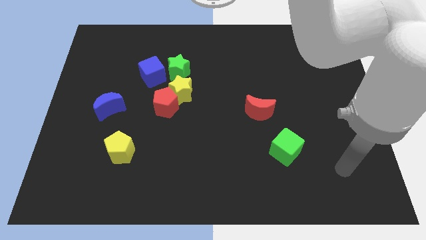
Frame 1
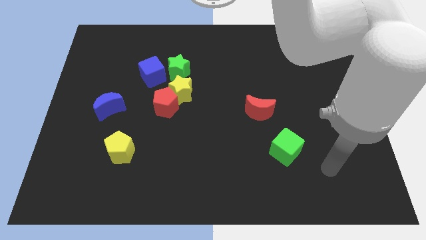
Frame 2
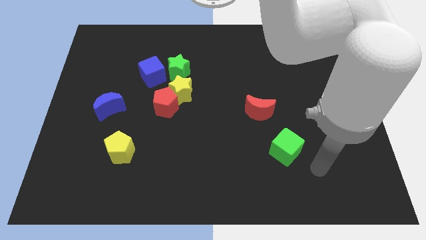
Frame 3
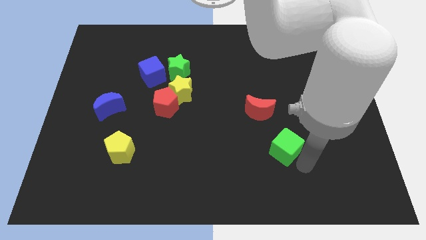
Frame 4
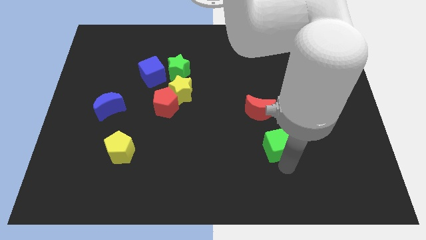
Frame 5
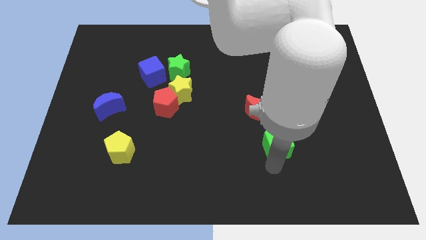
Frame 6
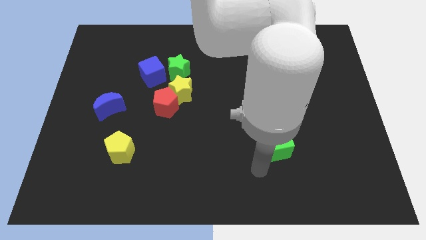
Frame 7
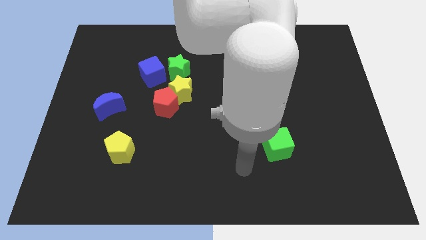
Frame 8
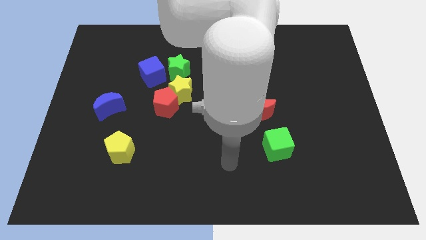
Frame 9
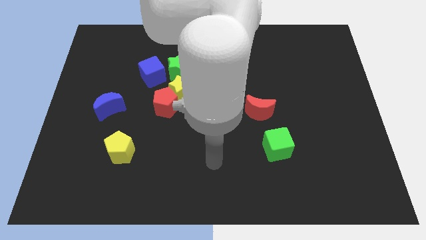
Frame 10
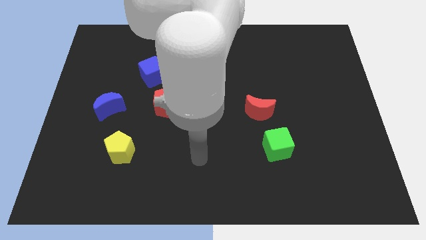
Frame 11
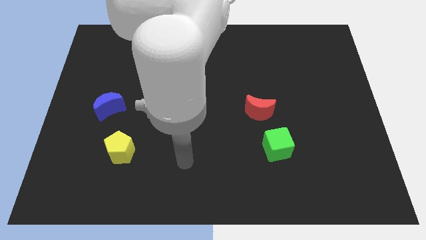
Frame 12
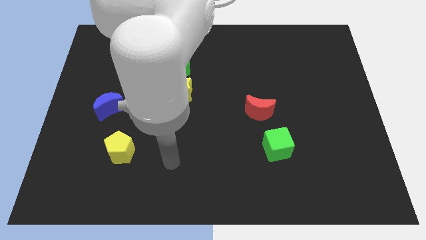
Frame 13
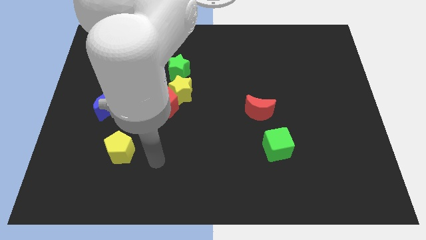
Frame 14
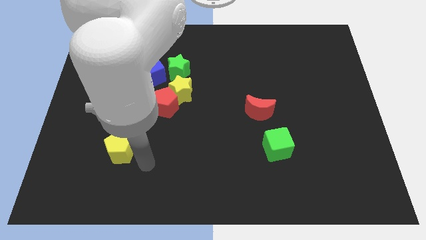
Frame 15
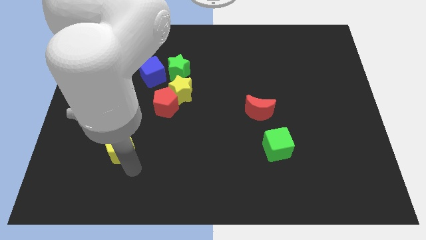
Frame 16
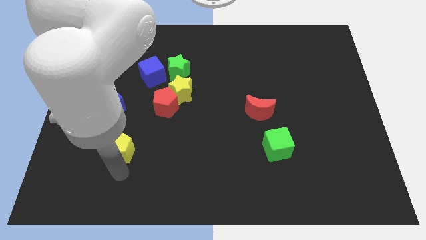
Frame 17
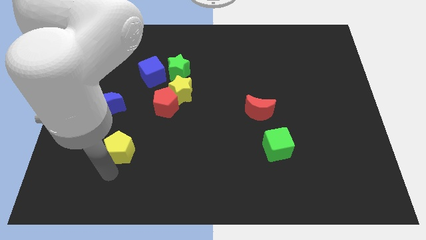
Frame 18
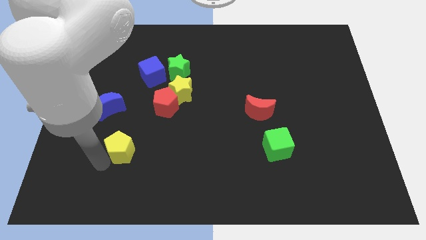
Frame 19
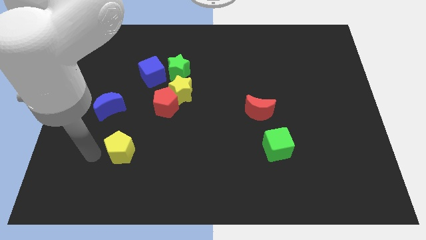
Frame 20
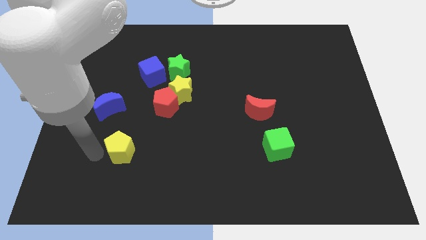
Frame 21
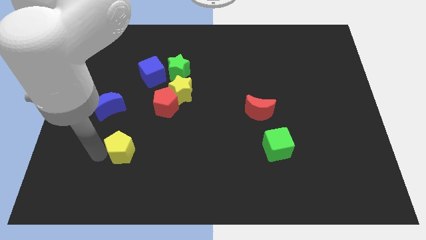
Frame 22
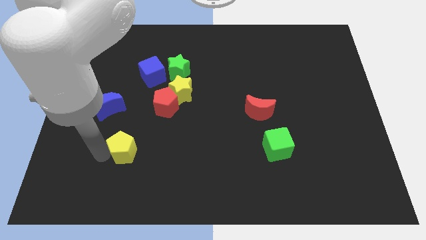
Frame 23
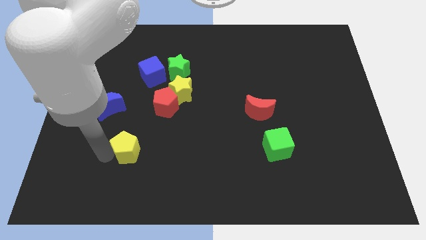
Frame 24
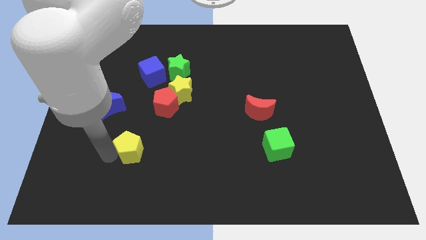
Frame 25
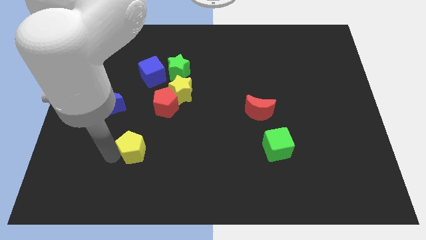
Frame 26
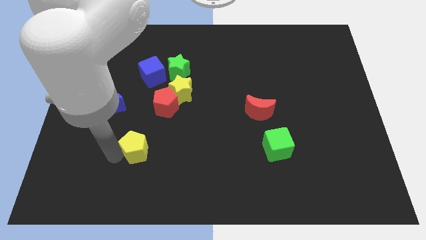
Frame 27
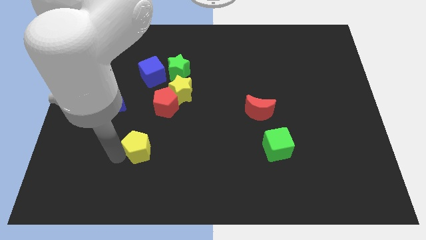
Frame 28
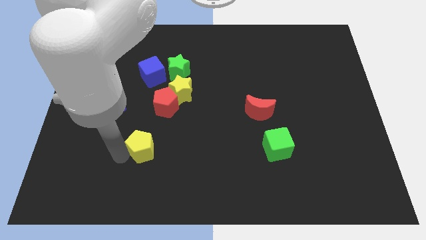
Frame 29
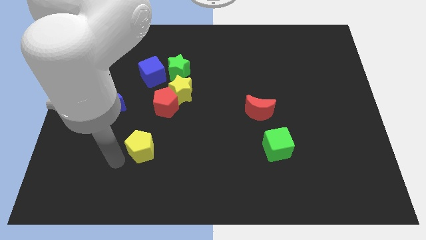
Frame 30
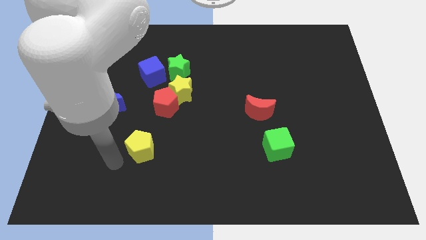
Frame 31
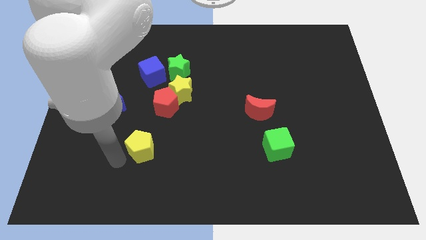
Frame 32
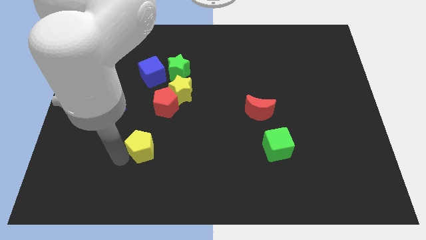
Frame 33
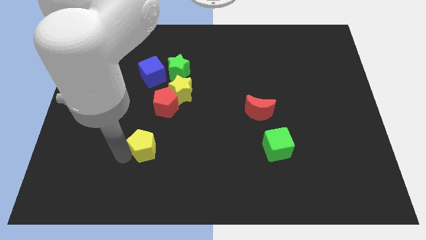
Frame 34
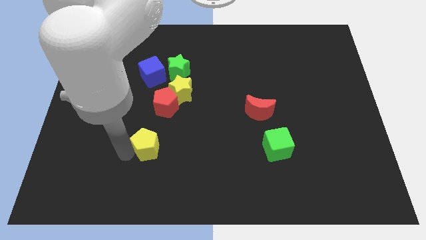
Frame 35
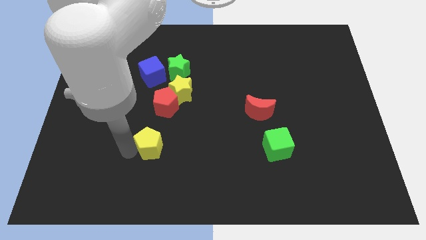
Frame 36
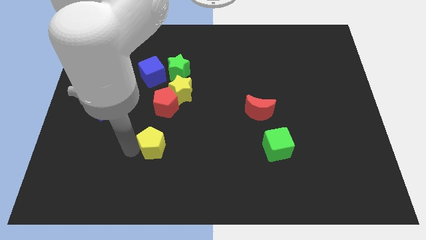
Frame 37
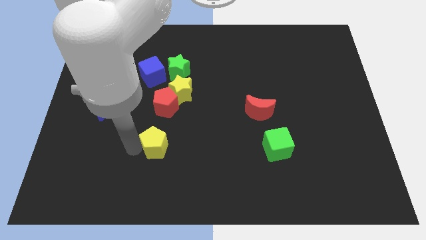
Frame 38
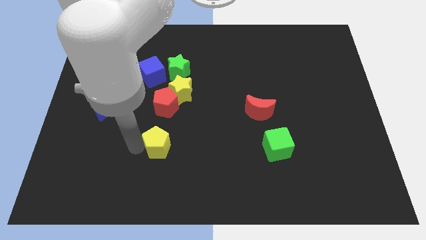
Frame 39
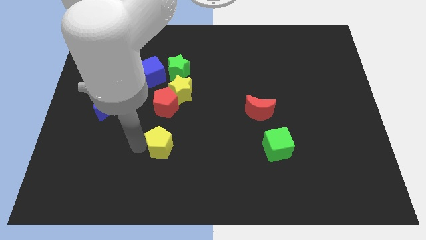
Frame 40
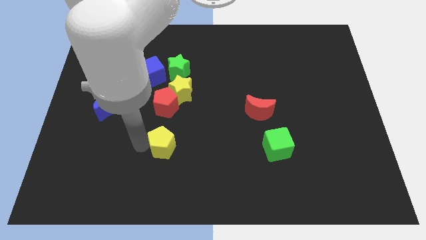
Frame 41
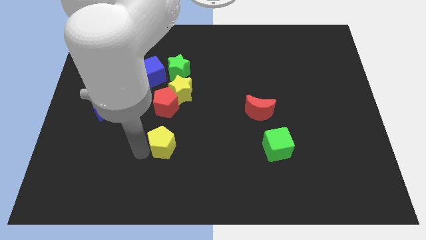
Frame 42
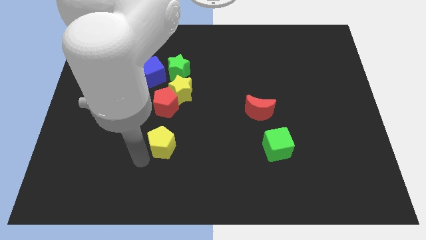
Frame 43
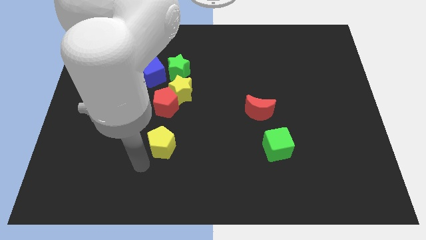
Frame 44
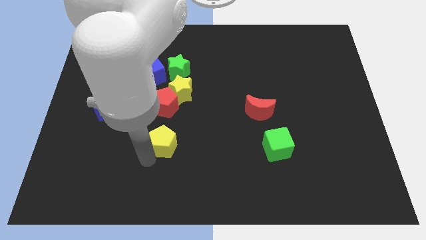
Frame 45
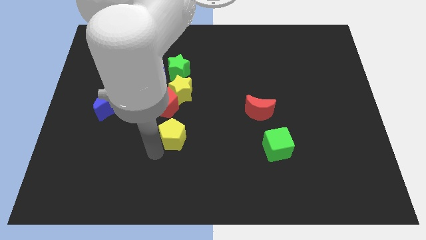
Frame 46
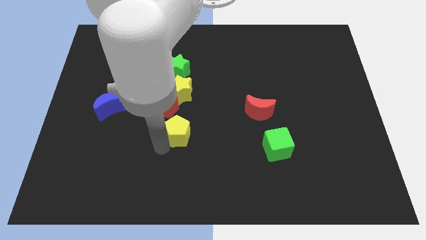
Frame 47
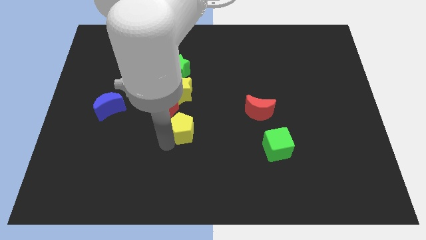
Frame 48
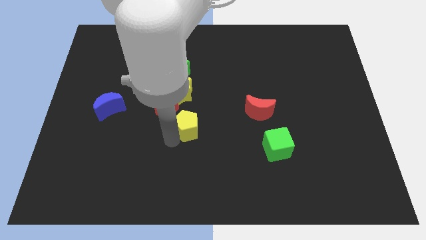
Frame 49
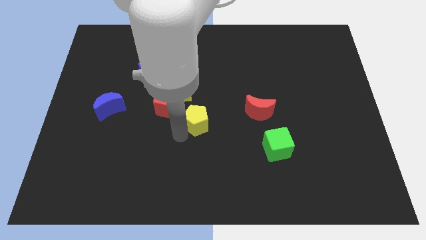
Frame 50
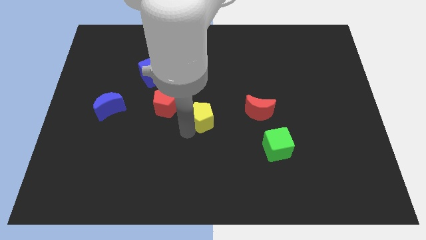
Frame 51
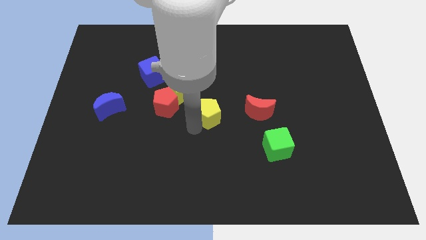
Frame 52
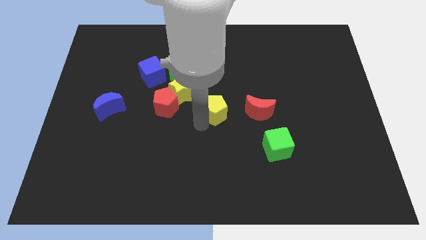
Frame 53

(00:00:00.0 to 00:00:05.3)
slide the yellow pentagon diagonally up and right

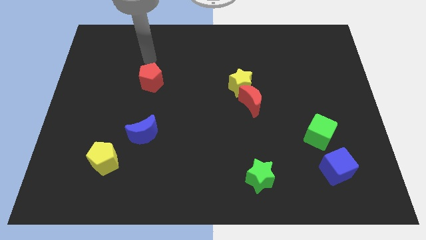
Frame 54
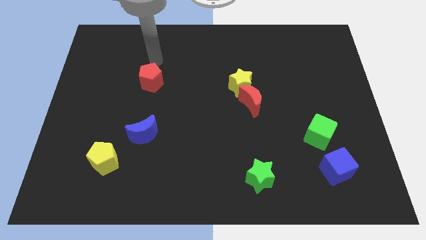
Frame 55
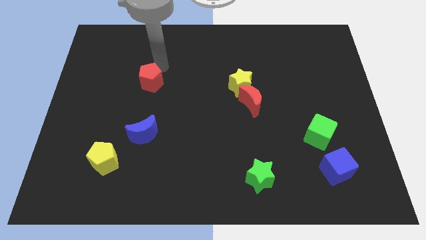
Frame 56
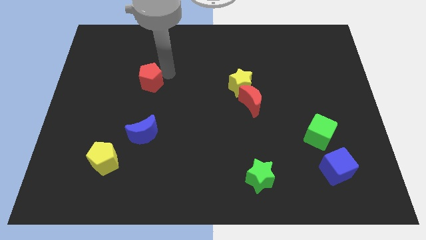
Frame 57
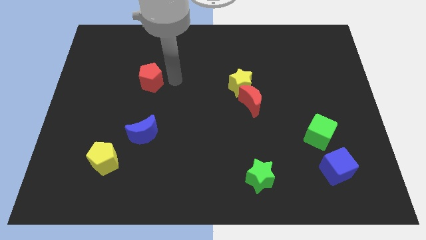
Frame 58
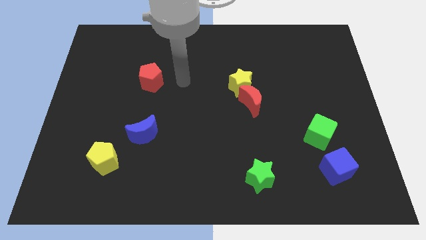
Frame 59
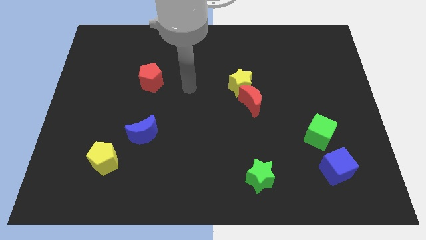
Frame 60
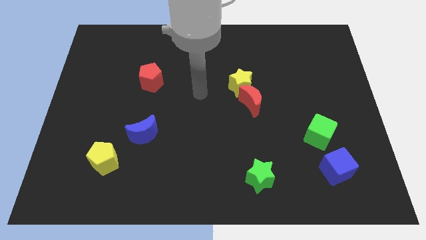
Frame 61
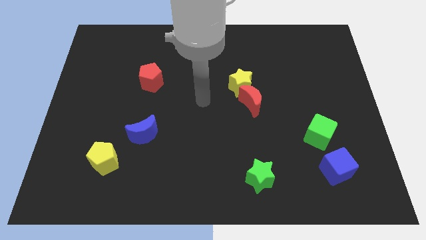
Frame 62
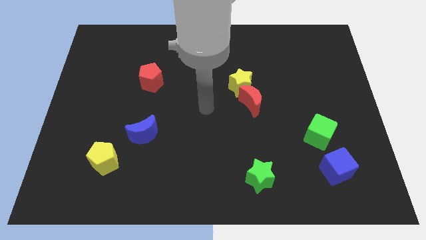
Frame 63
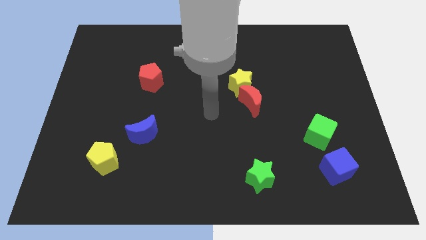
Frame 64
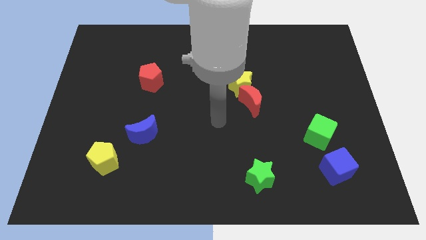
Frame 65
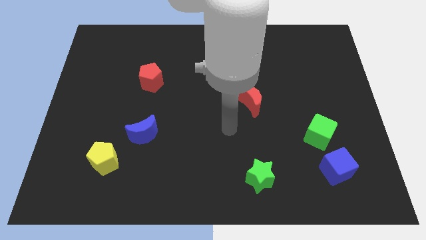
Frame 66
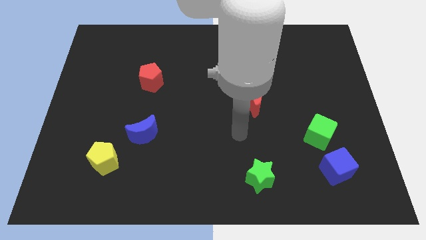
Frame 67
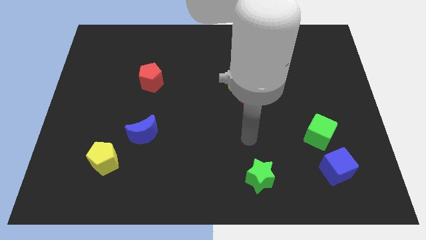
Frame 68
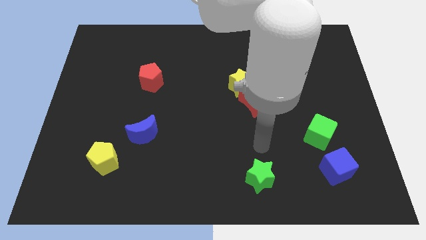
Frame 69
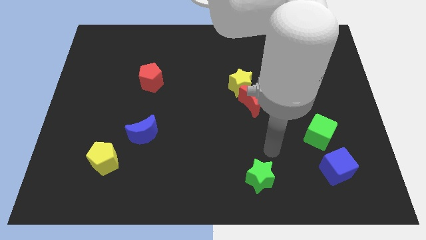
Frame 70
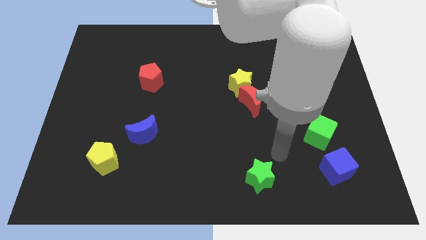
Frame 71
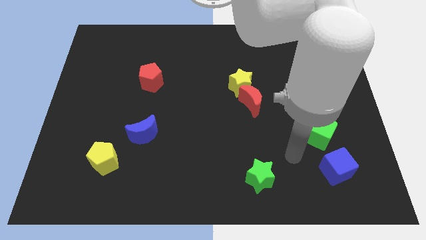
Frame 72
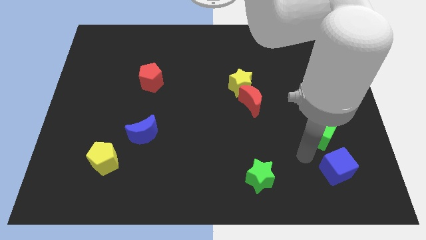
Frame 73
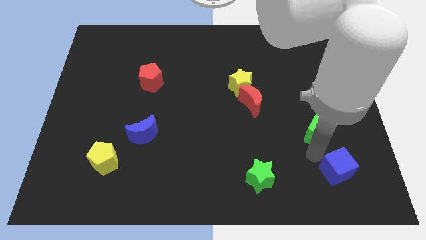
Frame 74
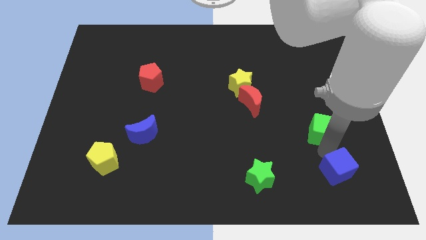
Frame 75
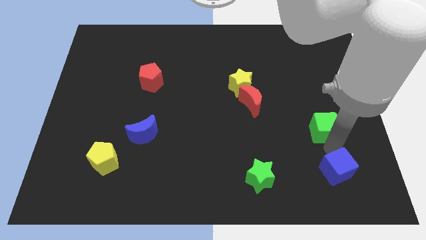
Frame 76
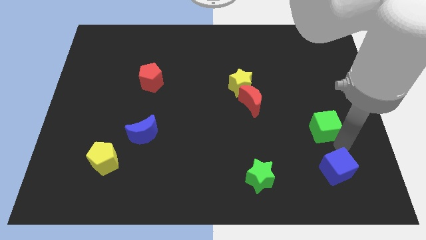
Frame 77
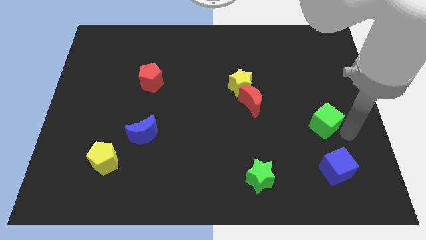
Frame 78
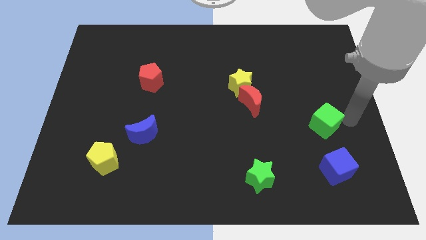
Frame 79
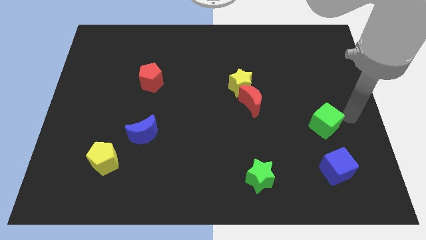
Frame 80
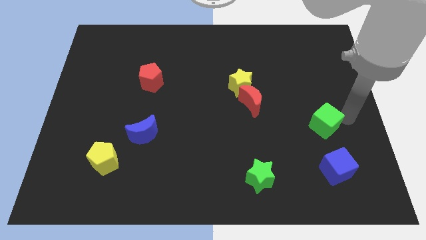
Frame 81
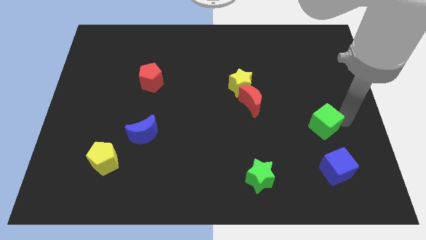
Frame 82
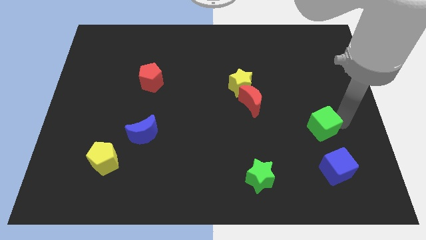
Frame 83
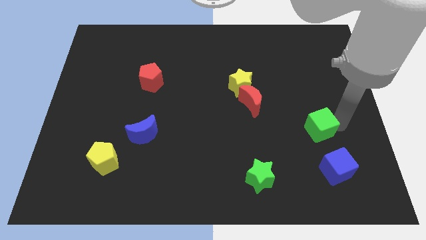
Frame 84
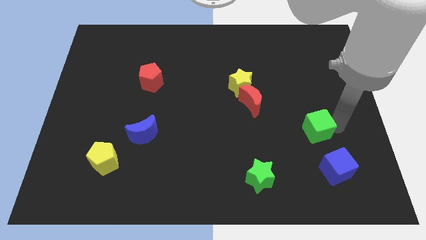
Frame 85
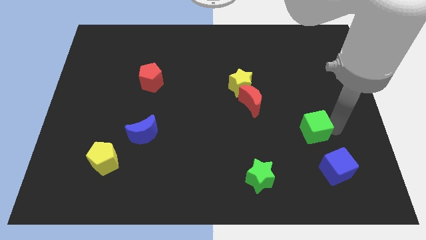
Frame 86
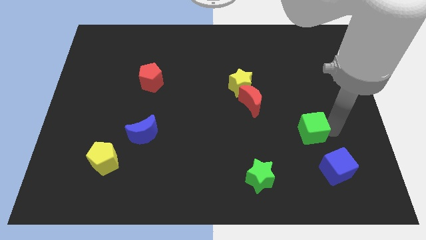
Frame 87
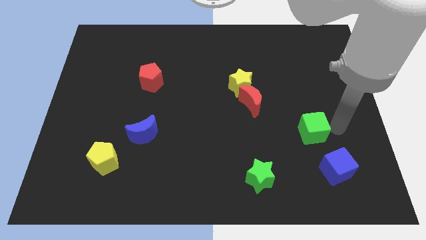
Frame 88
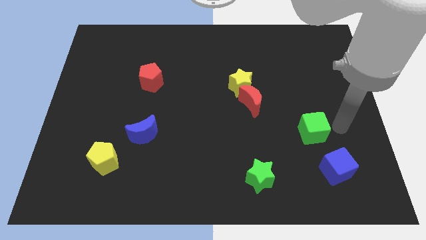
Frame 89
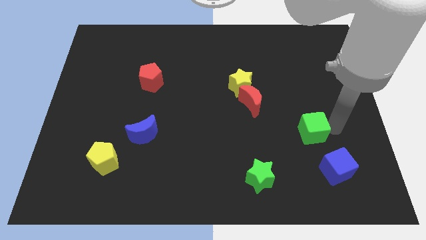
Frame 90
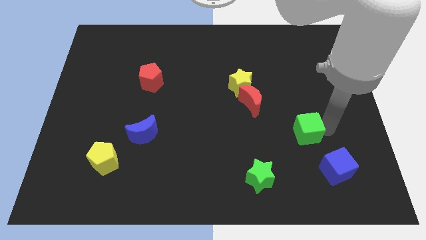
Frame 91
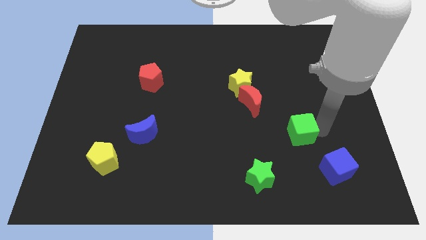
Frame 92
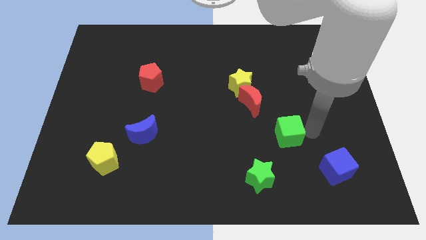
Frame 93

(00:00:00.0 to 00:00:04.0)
slightly move the green cube left
